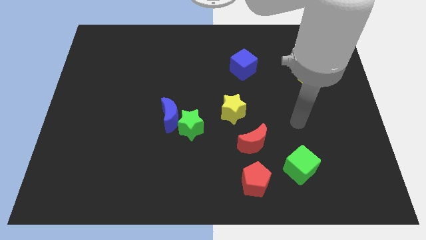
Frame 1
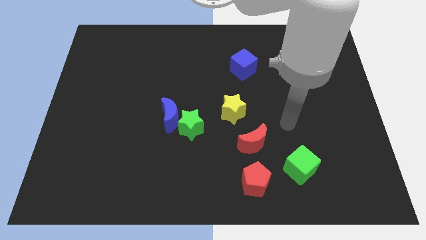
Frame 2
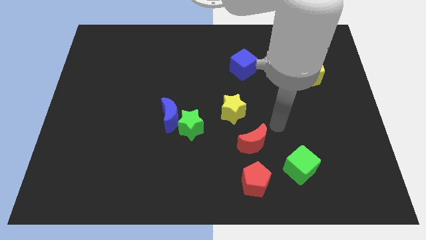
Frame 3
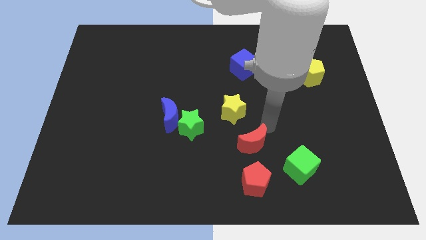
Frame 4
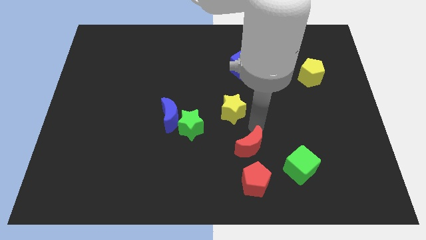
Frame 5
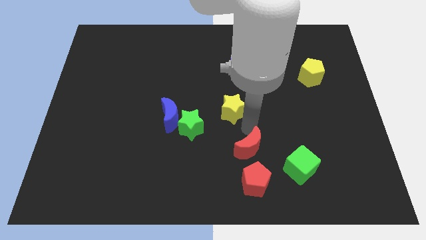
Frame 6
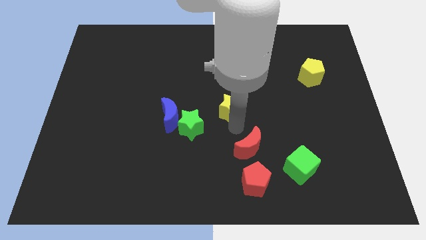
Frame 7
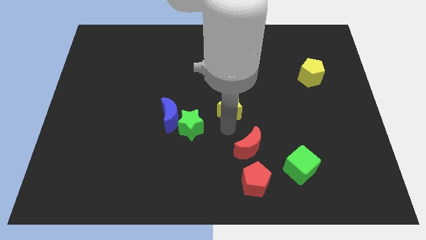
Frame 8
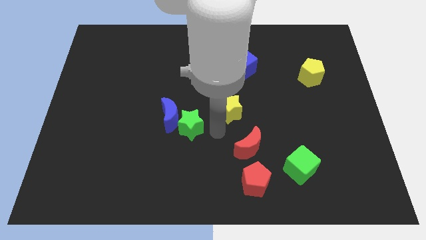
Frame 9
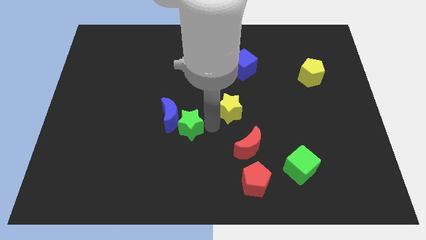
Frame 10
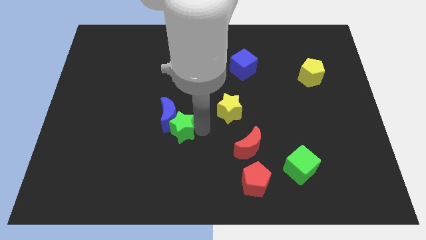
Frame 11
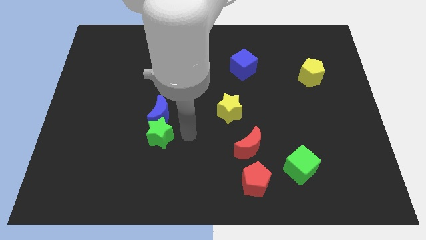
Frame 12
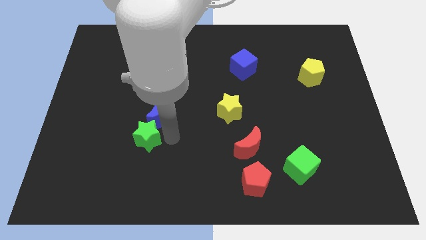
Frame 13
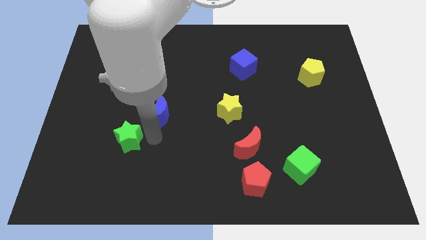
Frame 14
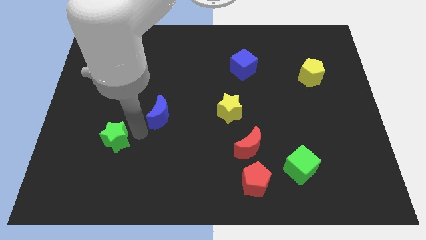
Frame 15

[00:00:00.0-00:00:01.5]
separate the blue moon from the green star

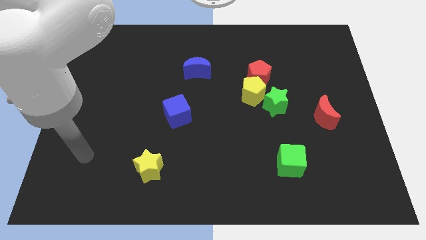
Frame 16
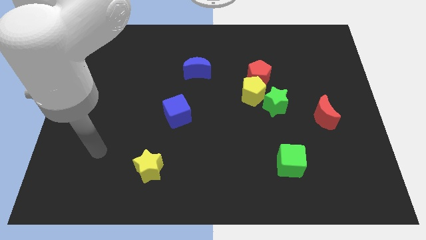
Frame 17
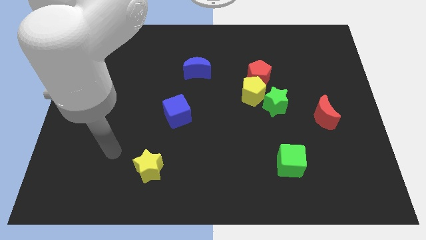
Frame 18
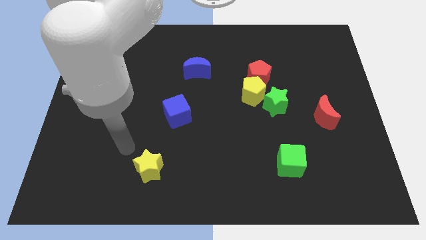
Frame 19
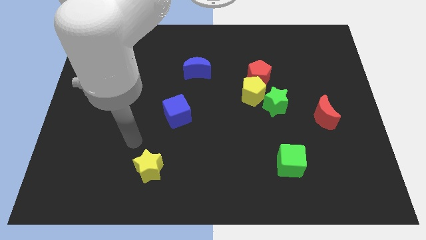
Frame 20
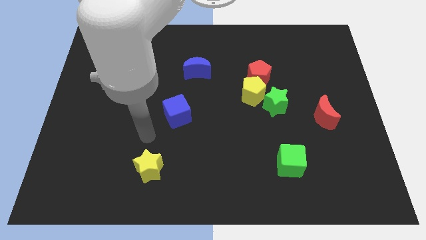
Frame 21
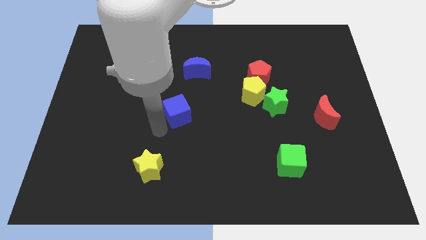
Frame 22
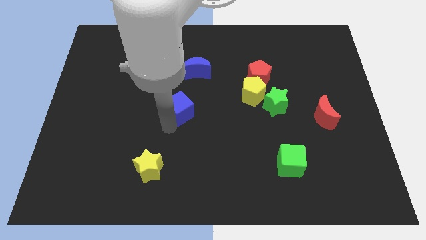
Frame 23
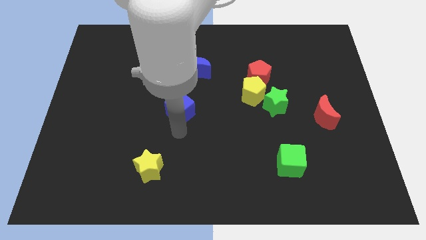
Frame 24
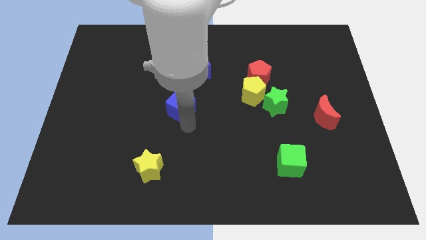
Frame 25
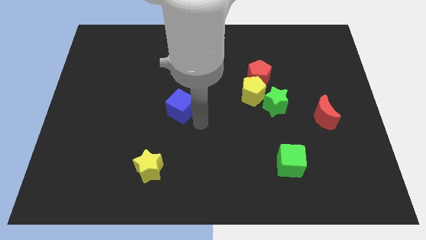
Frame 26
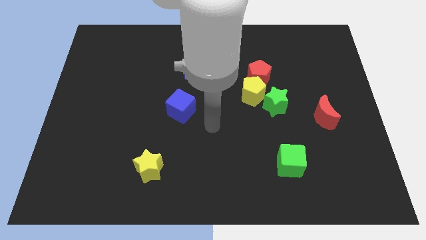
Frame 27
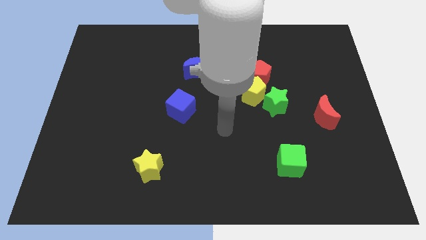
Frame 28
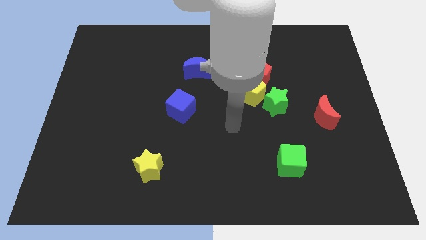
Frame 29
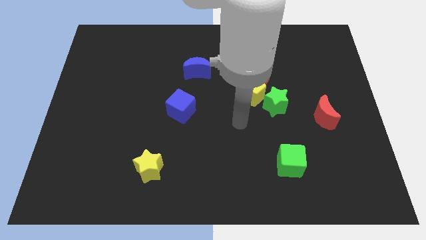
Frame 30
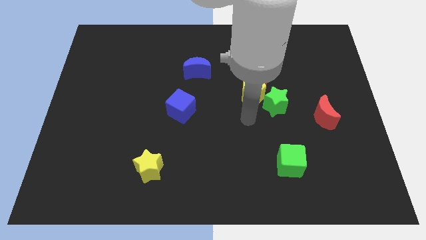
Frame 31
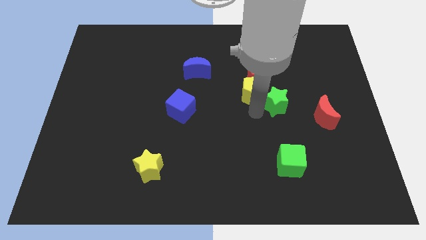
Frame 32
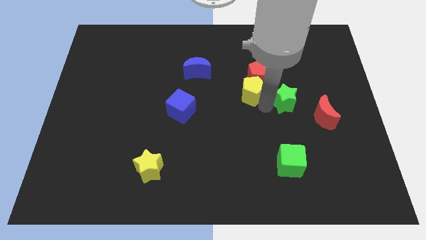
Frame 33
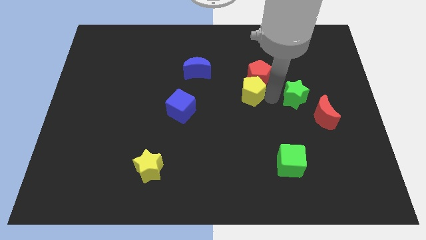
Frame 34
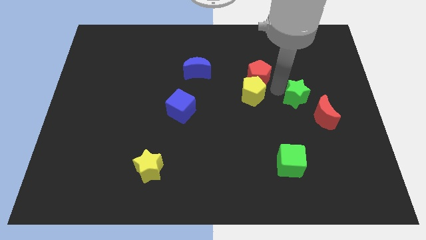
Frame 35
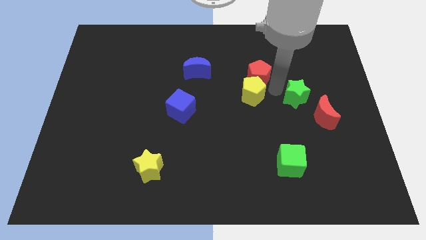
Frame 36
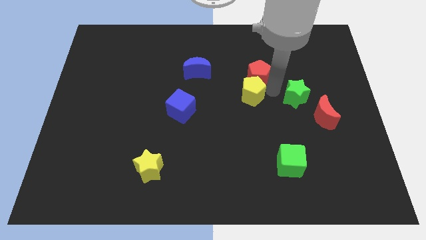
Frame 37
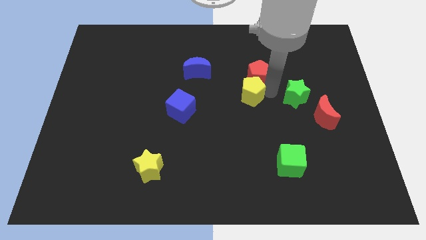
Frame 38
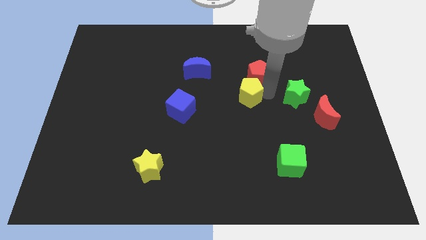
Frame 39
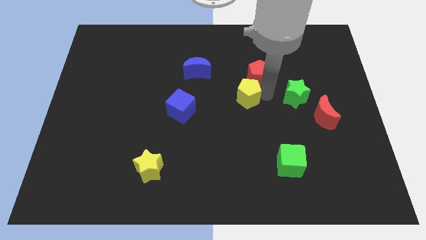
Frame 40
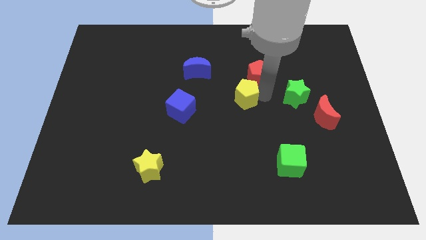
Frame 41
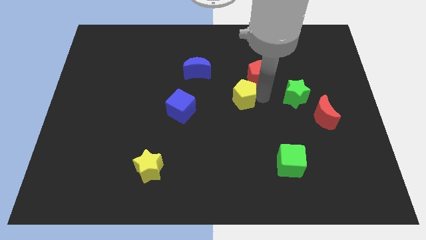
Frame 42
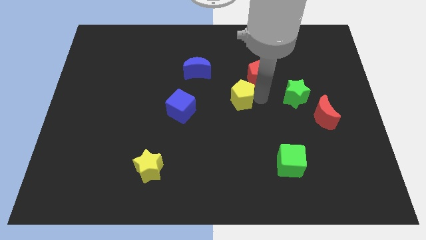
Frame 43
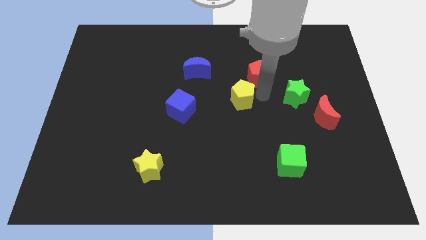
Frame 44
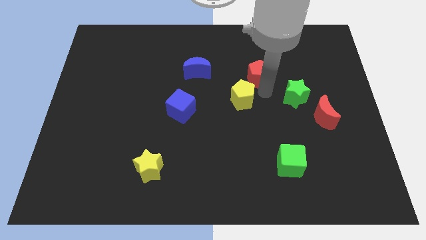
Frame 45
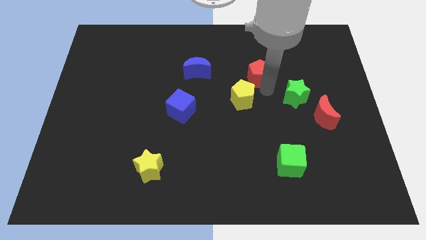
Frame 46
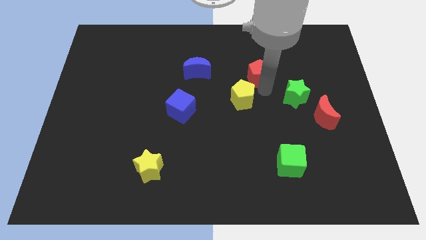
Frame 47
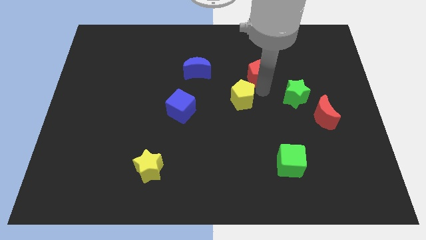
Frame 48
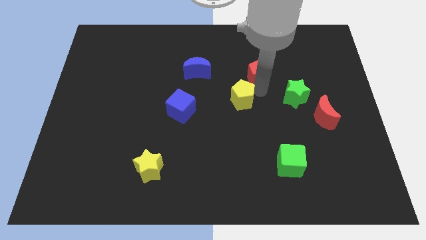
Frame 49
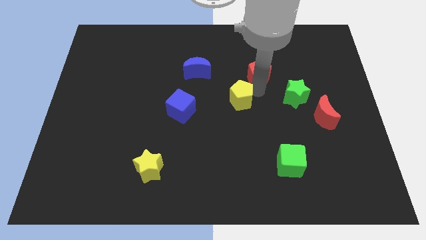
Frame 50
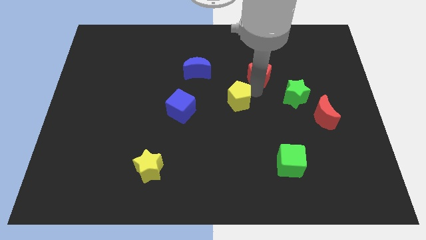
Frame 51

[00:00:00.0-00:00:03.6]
separate the yellow pentagon from the red pentagon and green star

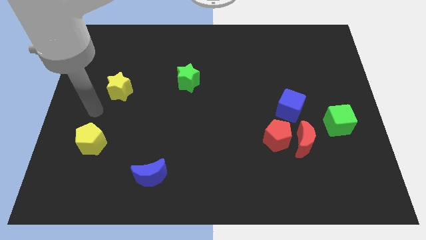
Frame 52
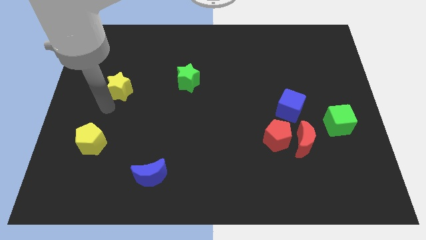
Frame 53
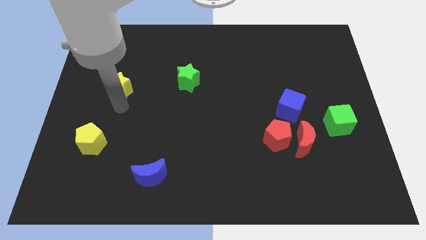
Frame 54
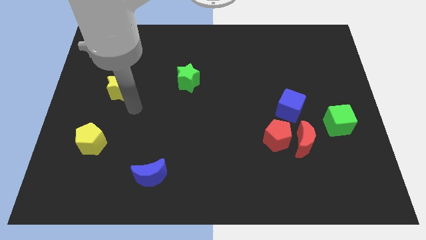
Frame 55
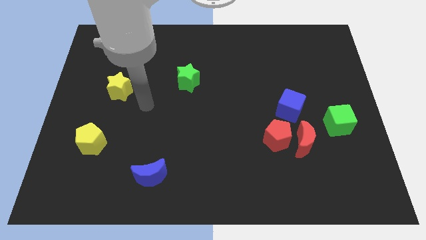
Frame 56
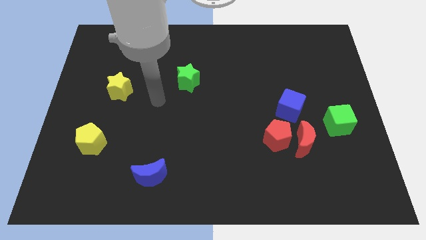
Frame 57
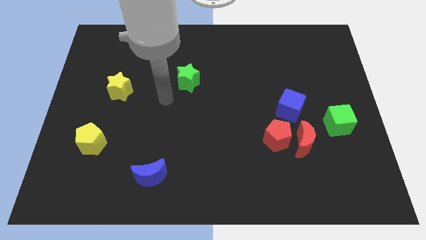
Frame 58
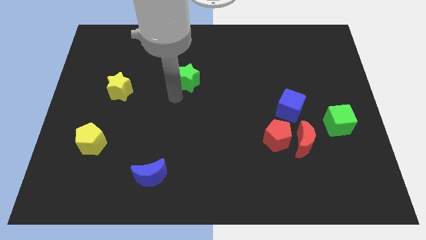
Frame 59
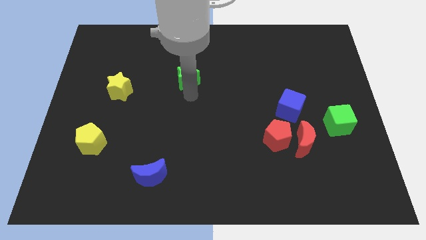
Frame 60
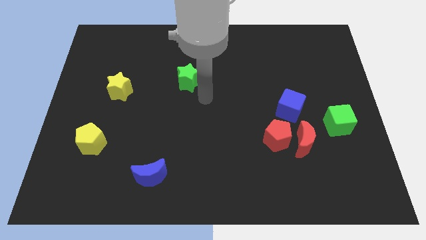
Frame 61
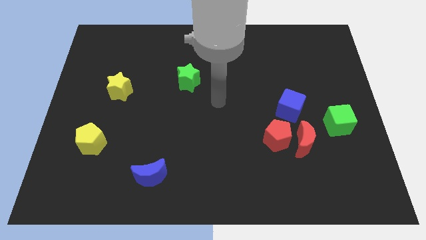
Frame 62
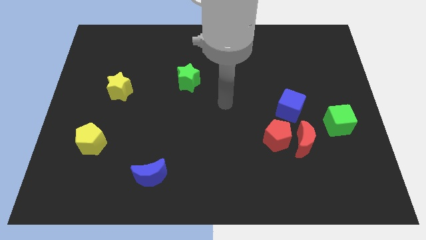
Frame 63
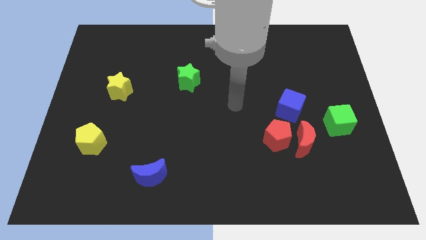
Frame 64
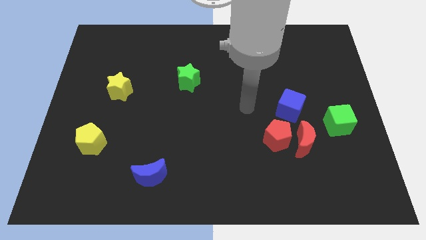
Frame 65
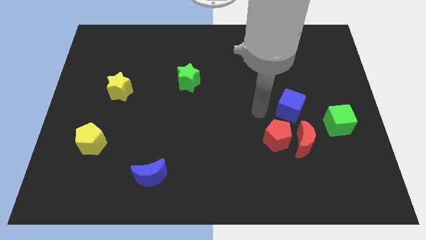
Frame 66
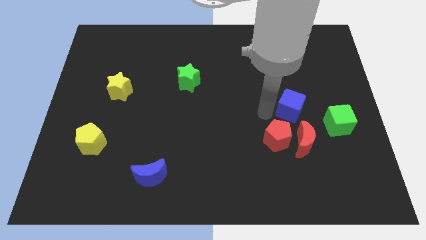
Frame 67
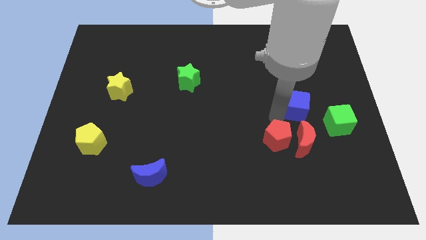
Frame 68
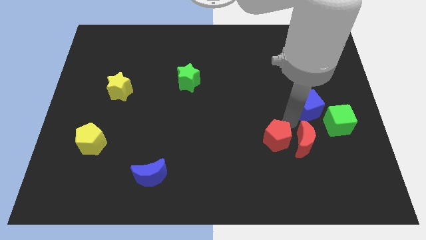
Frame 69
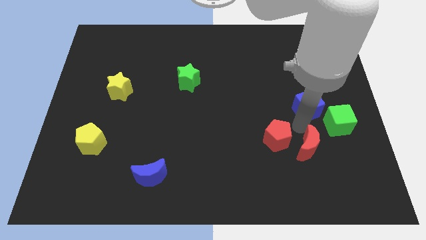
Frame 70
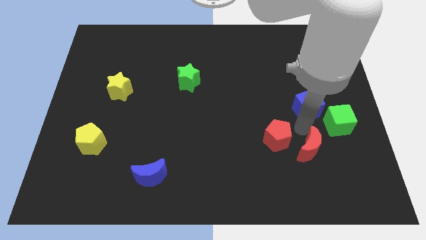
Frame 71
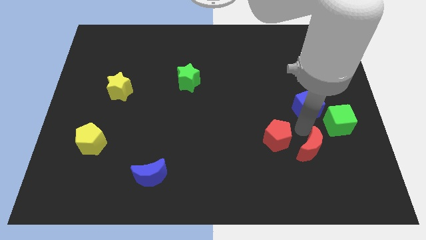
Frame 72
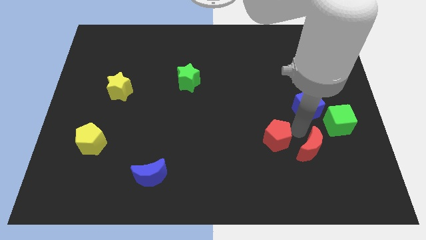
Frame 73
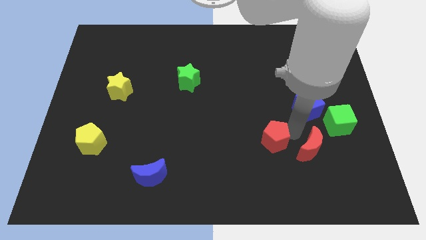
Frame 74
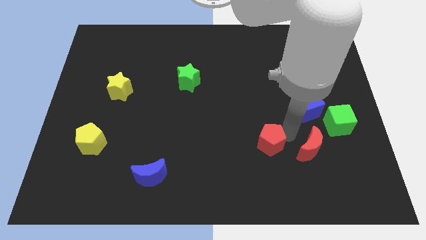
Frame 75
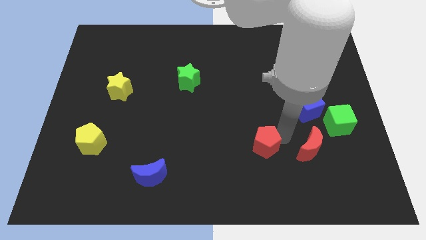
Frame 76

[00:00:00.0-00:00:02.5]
separate the red pentagon from the red moon and blue cube

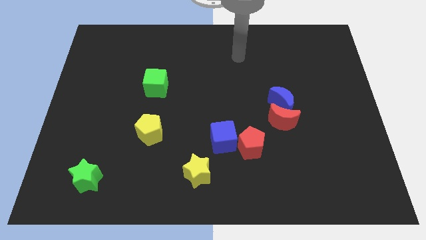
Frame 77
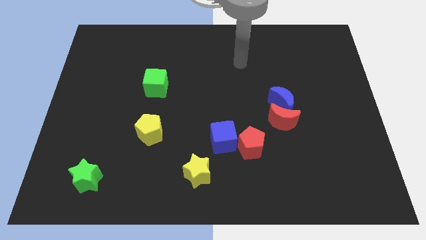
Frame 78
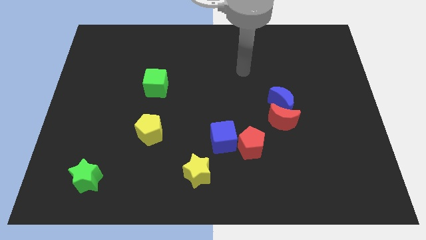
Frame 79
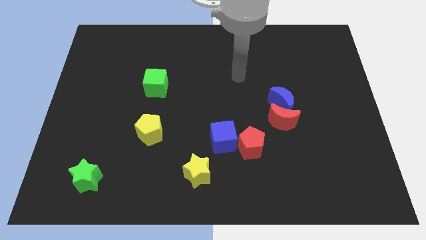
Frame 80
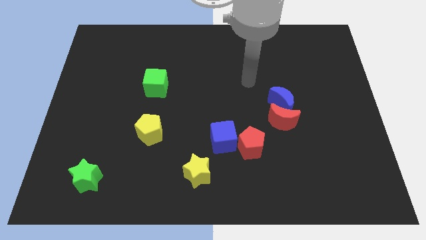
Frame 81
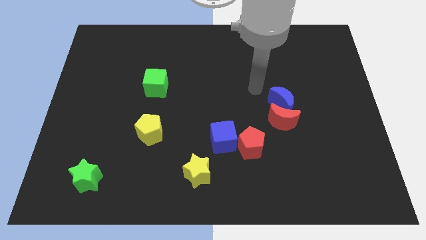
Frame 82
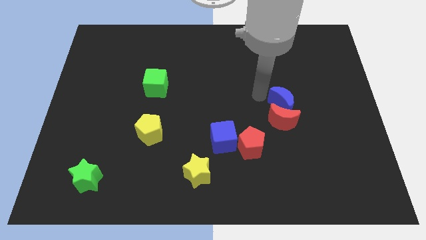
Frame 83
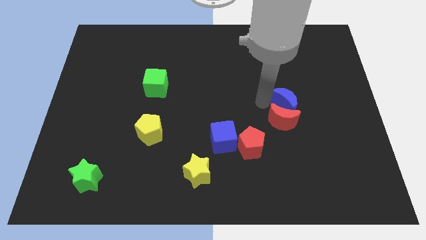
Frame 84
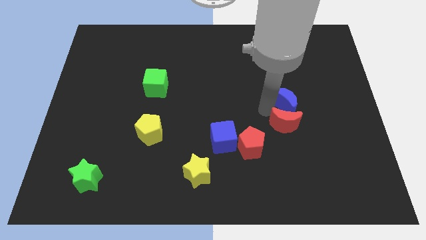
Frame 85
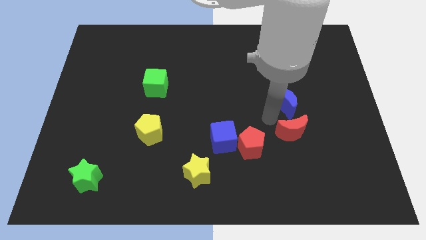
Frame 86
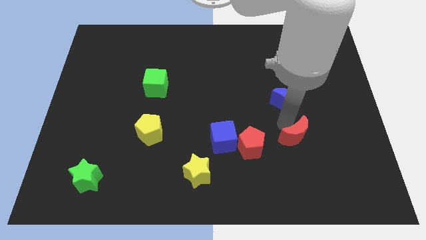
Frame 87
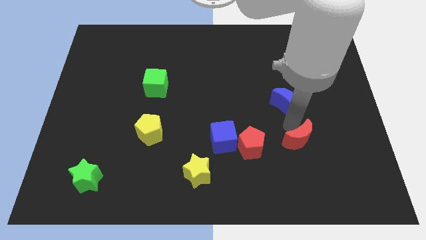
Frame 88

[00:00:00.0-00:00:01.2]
pull the blue moon apart from the red moon

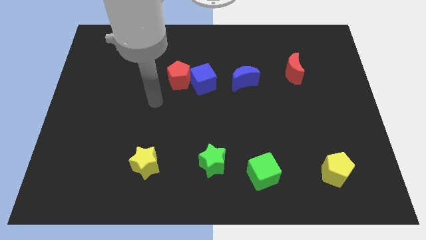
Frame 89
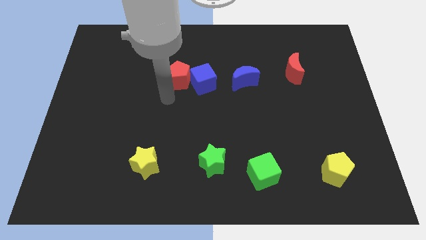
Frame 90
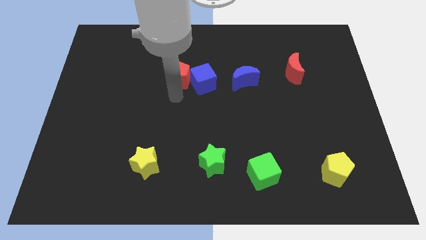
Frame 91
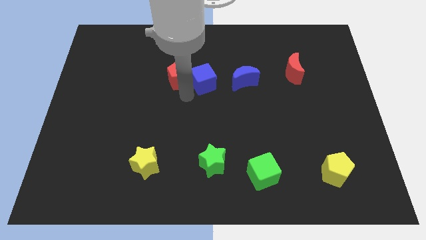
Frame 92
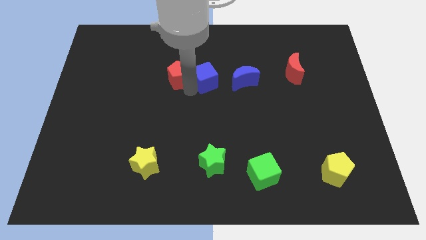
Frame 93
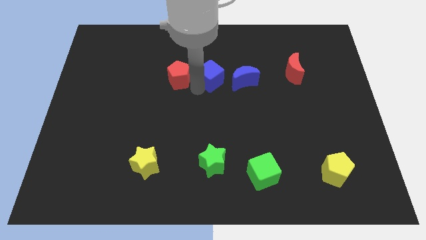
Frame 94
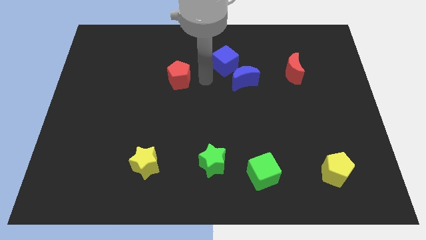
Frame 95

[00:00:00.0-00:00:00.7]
move the red pentagon away from the blue cube
